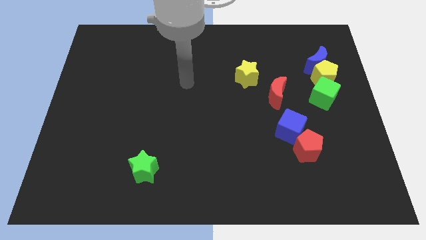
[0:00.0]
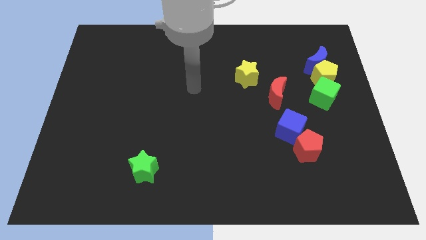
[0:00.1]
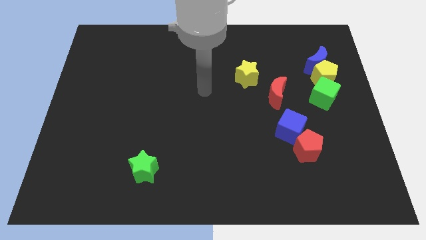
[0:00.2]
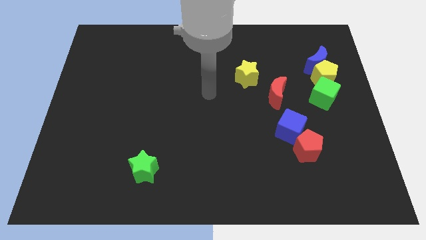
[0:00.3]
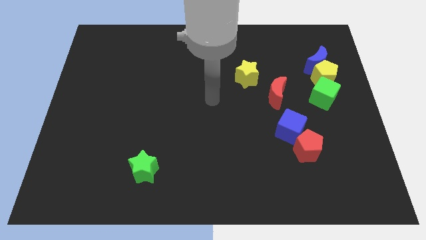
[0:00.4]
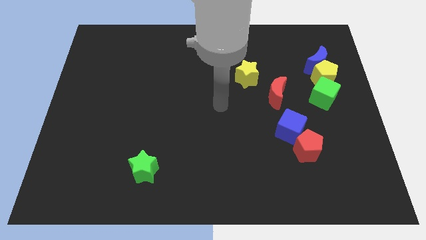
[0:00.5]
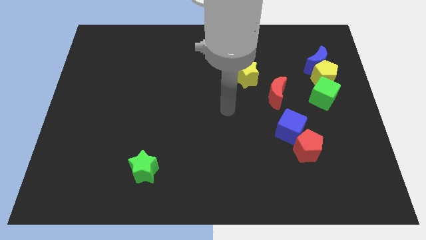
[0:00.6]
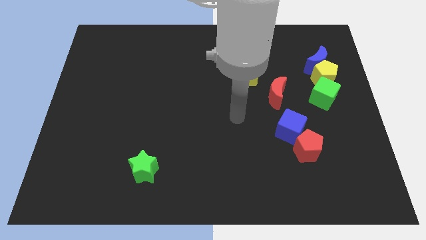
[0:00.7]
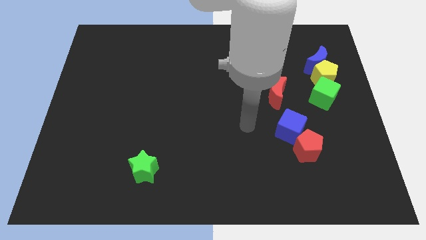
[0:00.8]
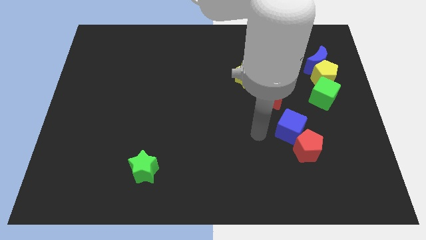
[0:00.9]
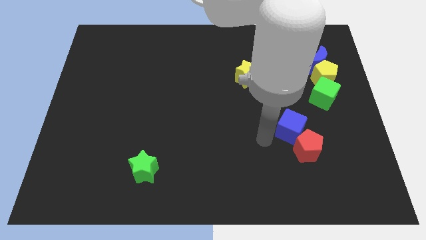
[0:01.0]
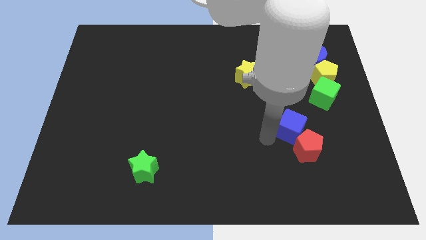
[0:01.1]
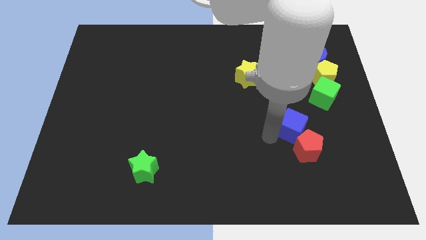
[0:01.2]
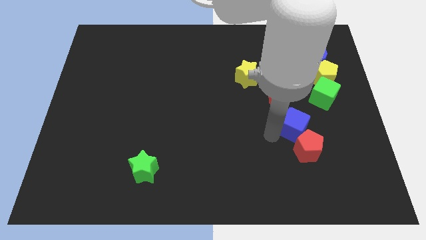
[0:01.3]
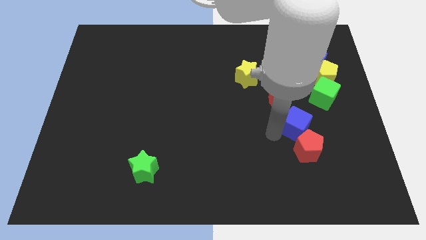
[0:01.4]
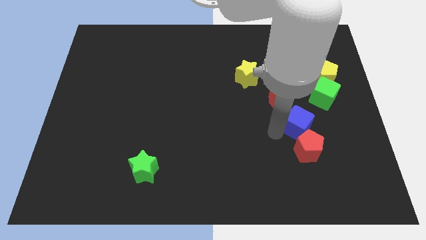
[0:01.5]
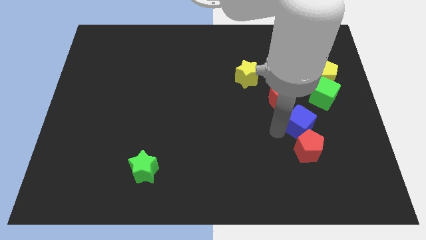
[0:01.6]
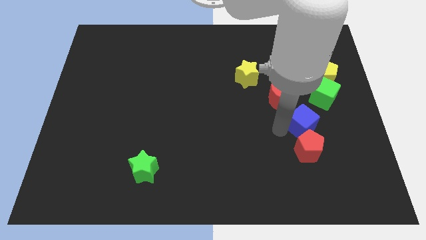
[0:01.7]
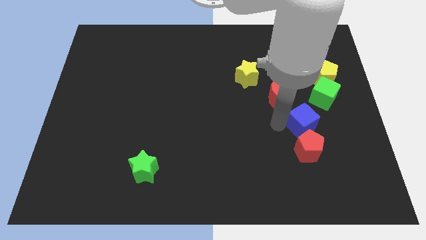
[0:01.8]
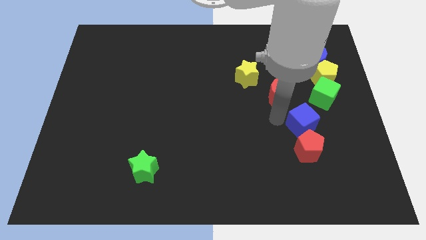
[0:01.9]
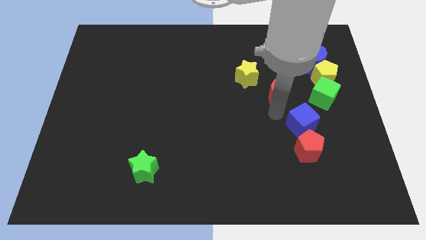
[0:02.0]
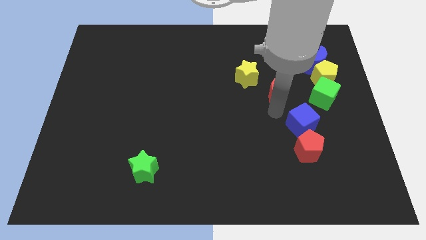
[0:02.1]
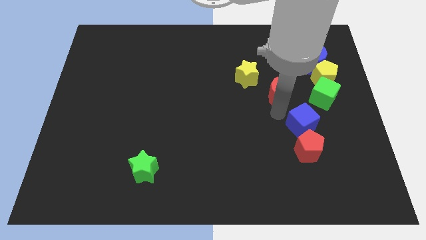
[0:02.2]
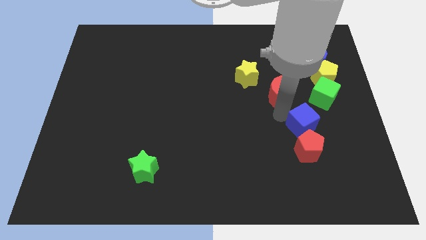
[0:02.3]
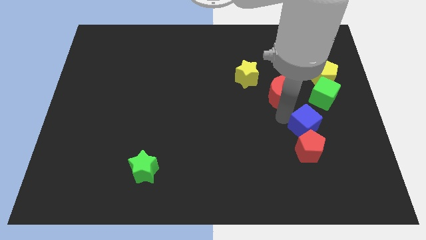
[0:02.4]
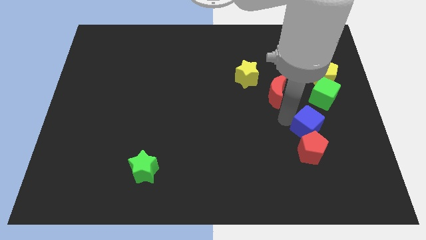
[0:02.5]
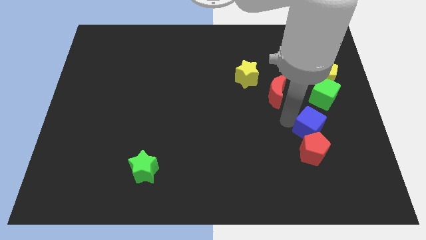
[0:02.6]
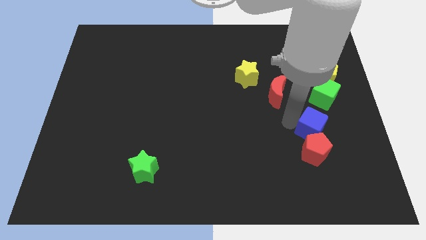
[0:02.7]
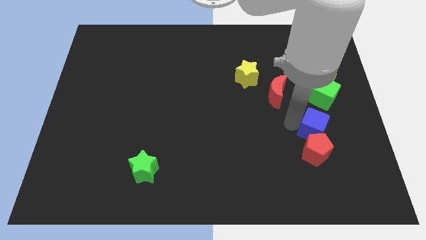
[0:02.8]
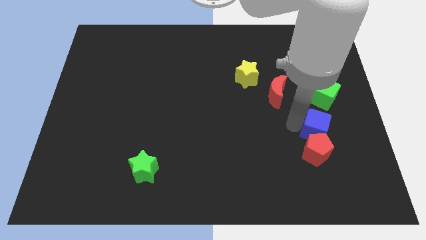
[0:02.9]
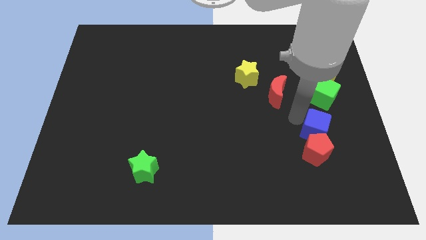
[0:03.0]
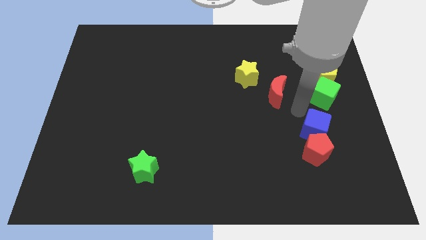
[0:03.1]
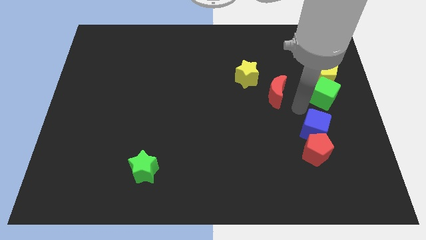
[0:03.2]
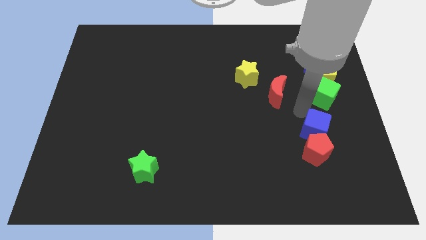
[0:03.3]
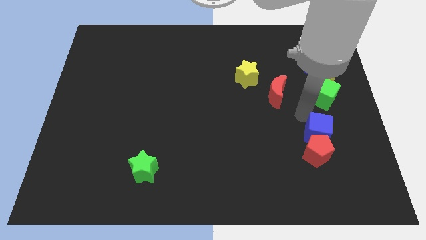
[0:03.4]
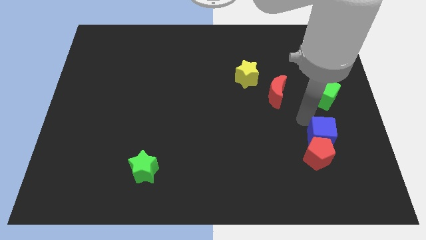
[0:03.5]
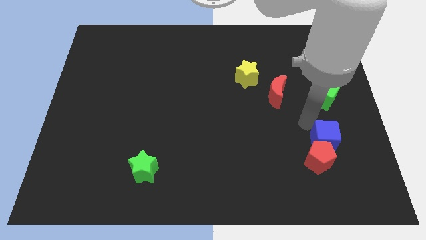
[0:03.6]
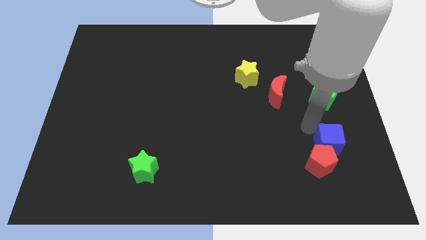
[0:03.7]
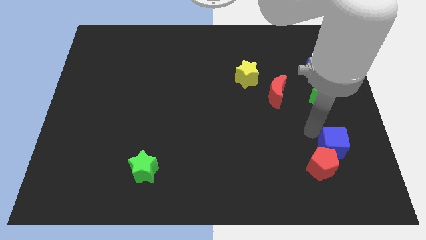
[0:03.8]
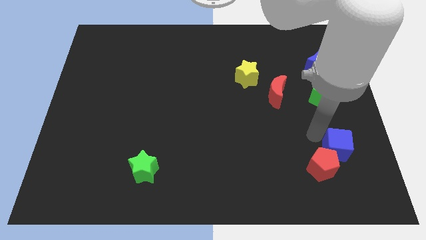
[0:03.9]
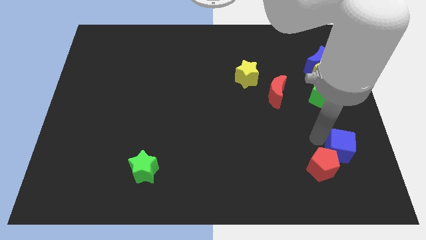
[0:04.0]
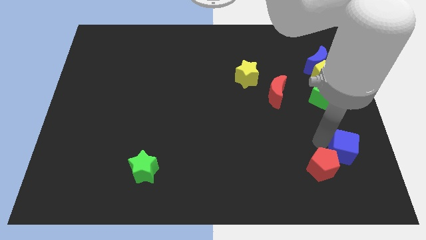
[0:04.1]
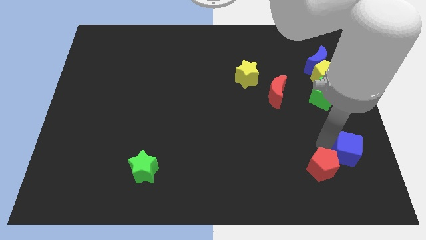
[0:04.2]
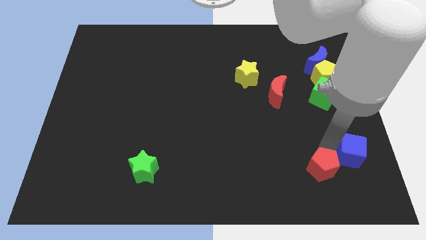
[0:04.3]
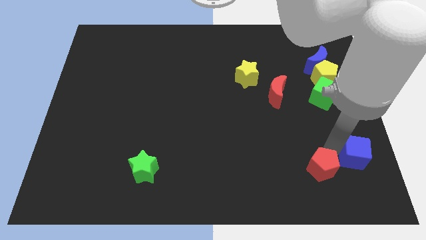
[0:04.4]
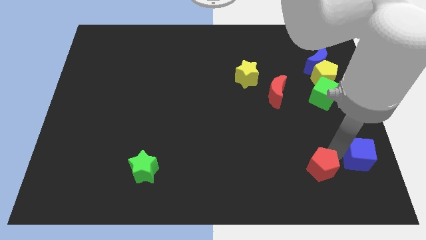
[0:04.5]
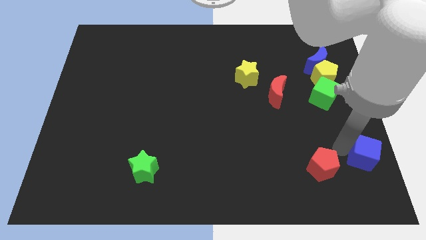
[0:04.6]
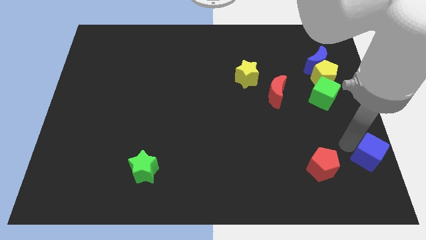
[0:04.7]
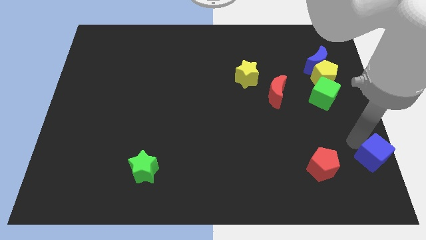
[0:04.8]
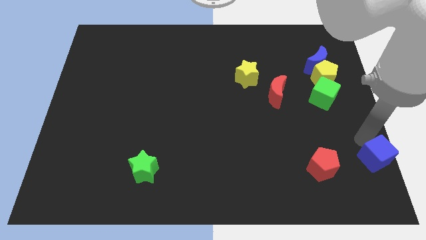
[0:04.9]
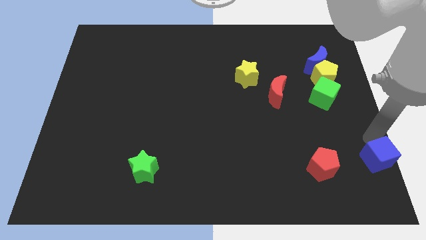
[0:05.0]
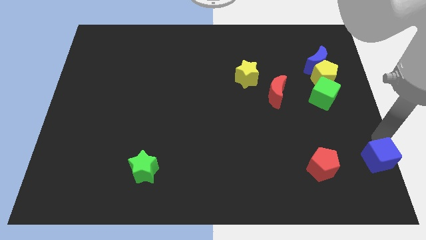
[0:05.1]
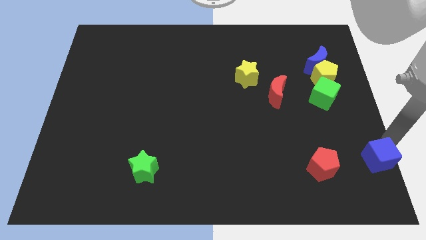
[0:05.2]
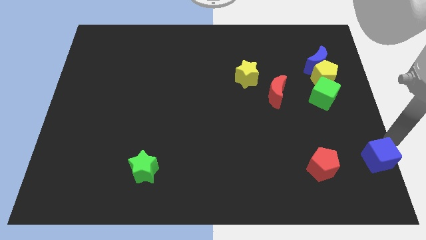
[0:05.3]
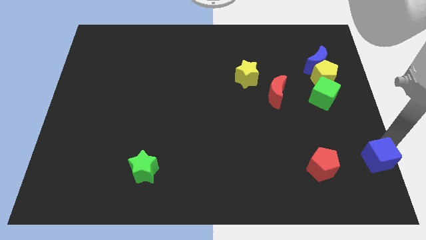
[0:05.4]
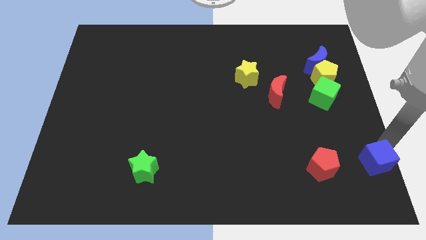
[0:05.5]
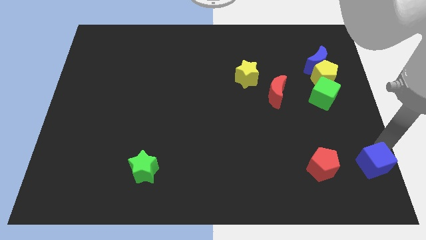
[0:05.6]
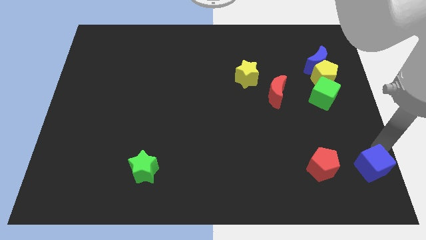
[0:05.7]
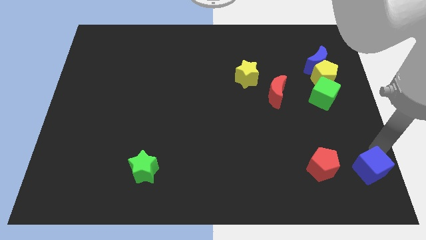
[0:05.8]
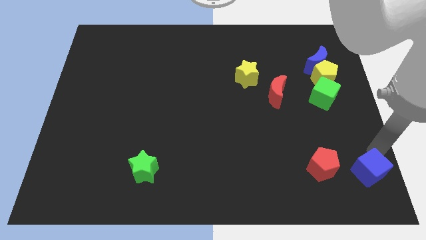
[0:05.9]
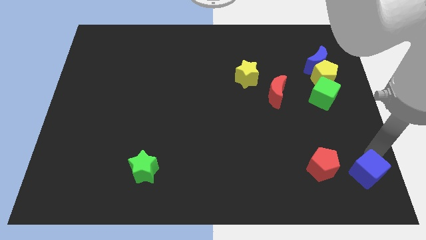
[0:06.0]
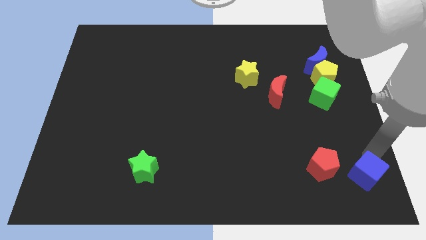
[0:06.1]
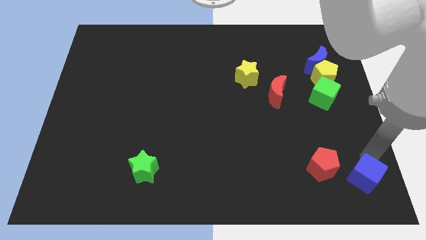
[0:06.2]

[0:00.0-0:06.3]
push the blue cube to the bottom right of the red pentagon
